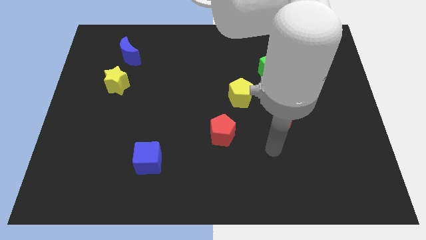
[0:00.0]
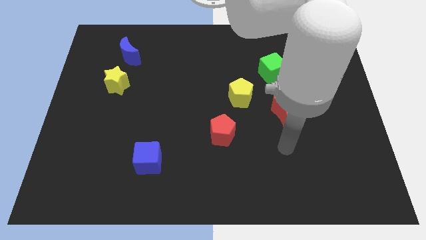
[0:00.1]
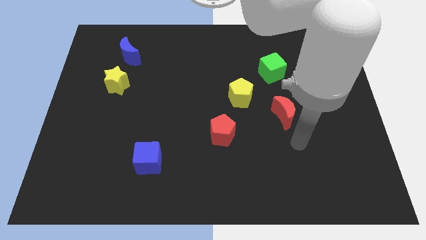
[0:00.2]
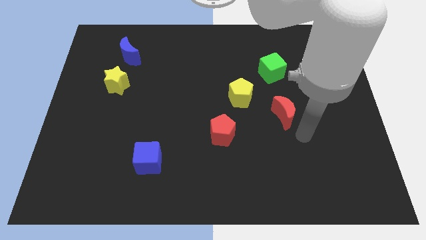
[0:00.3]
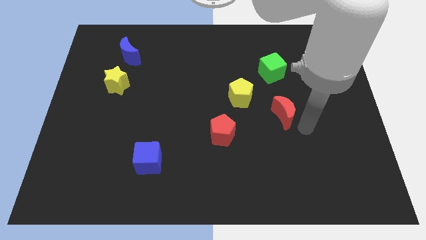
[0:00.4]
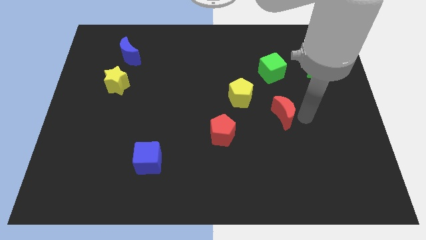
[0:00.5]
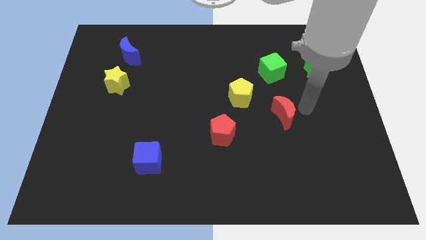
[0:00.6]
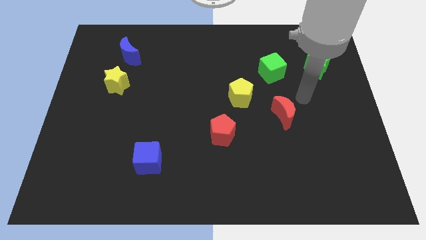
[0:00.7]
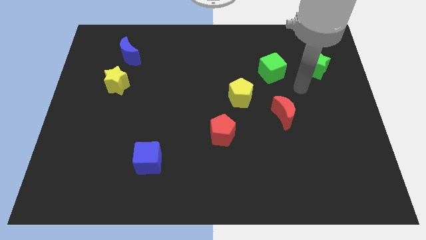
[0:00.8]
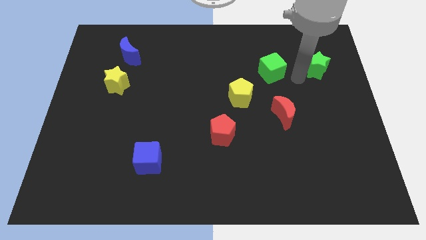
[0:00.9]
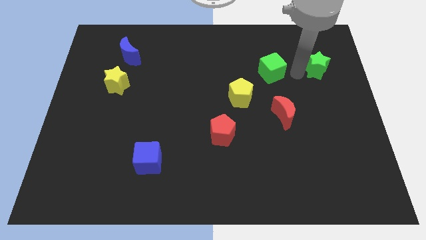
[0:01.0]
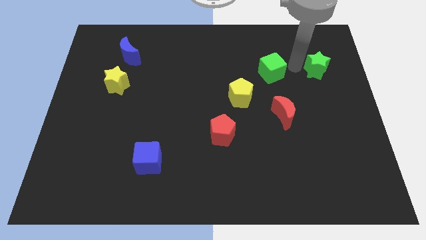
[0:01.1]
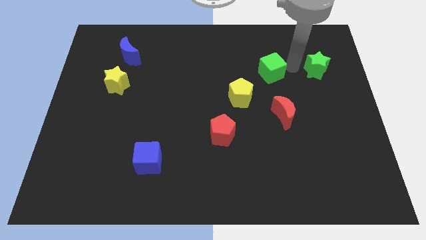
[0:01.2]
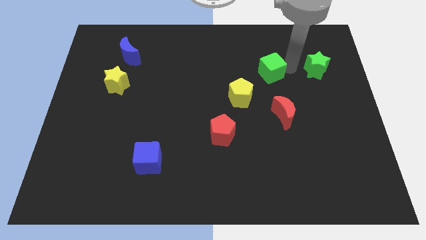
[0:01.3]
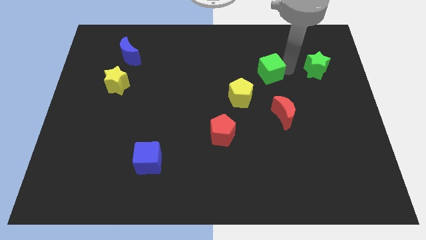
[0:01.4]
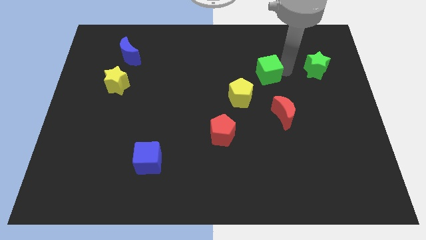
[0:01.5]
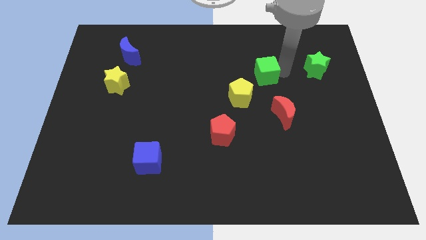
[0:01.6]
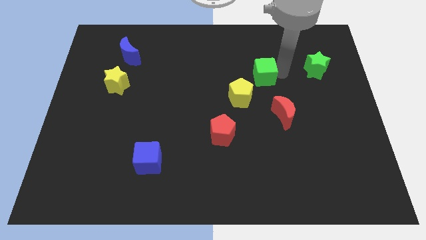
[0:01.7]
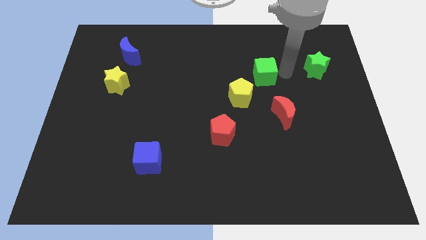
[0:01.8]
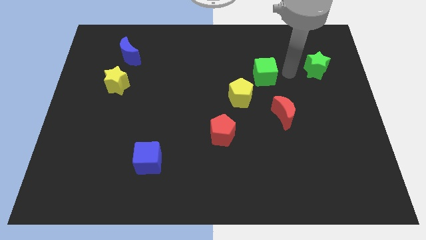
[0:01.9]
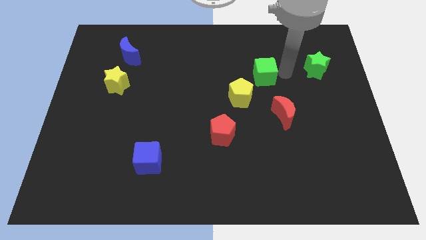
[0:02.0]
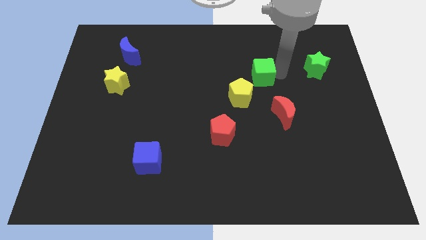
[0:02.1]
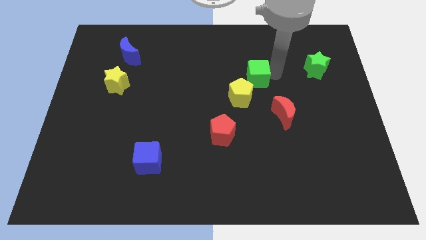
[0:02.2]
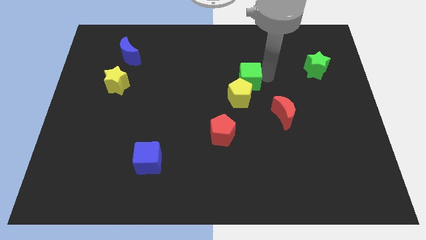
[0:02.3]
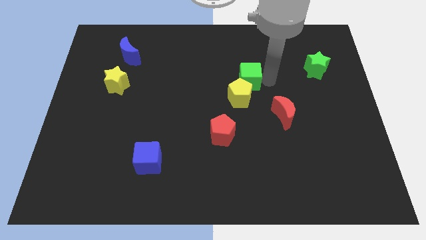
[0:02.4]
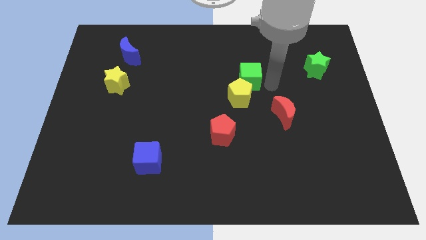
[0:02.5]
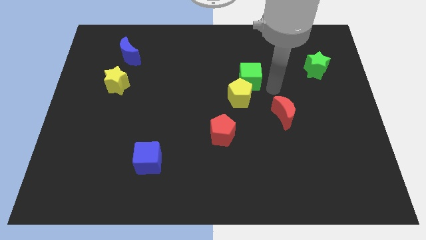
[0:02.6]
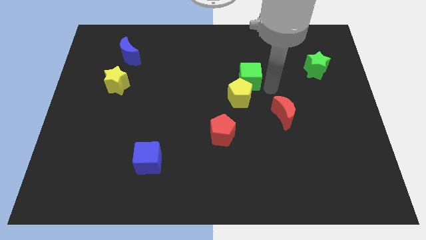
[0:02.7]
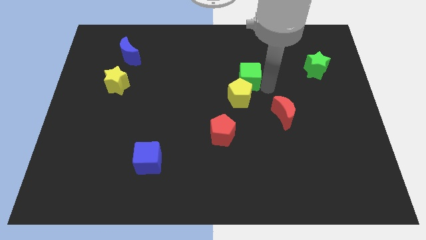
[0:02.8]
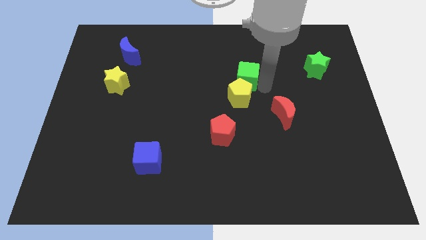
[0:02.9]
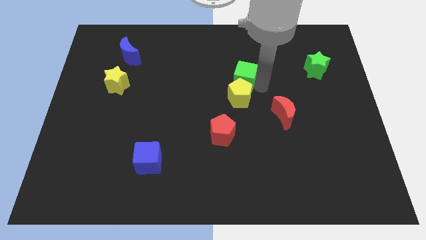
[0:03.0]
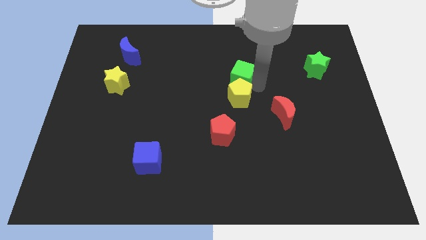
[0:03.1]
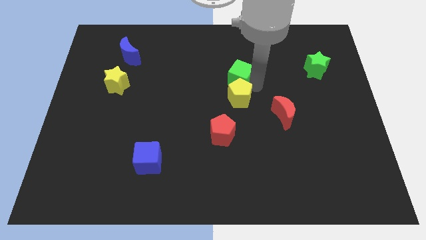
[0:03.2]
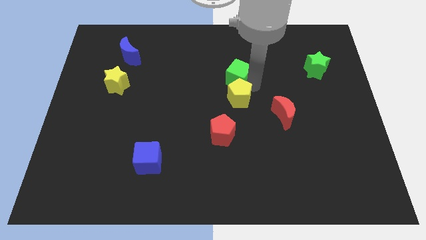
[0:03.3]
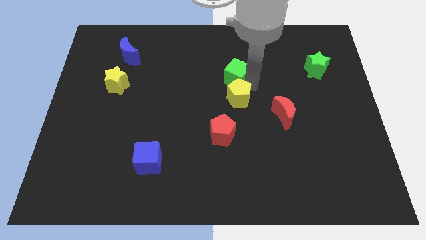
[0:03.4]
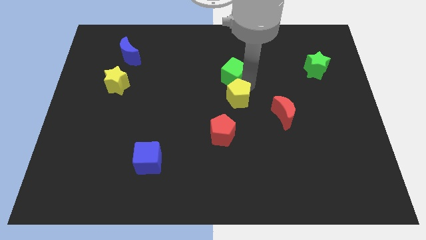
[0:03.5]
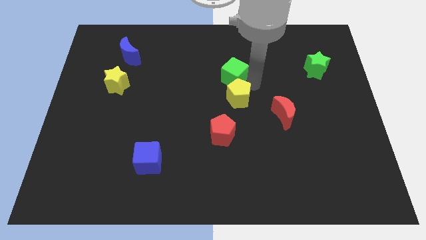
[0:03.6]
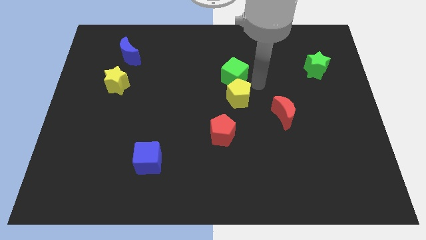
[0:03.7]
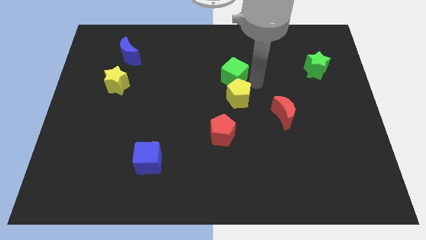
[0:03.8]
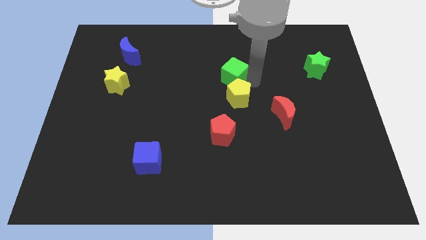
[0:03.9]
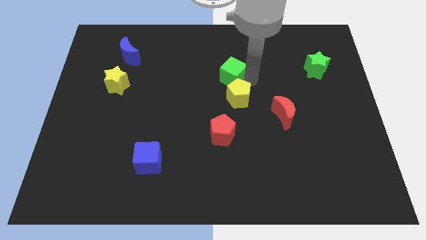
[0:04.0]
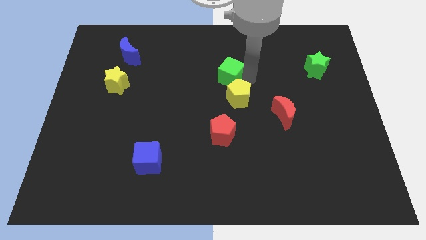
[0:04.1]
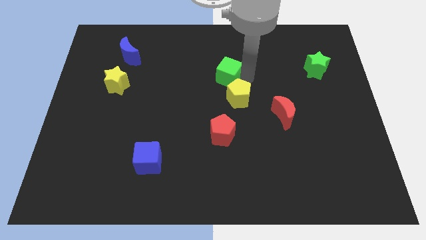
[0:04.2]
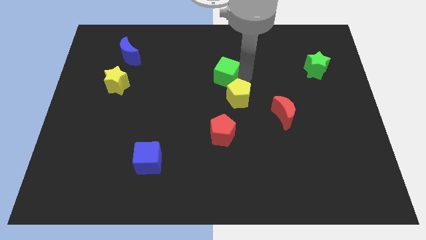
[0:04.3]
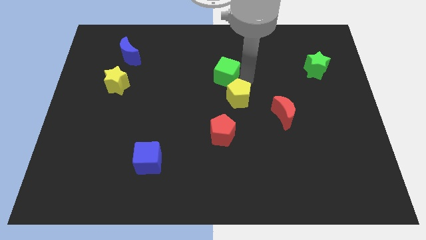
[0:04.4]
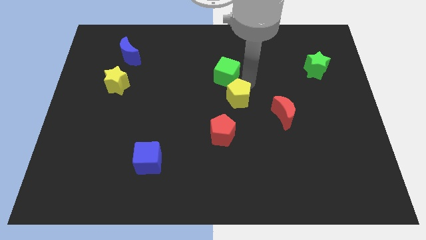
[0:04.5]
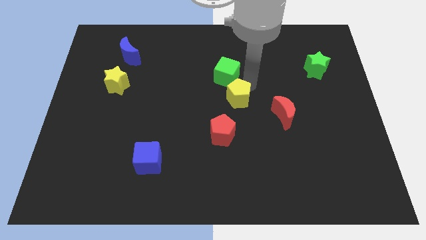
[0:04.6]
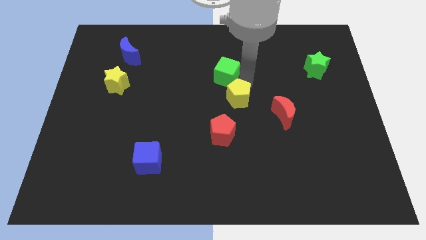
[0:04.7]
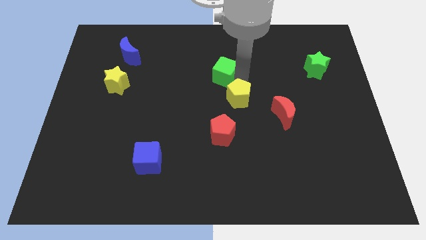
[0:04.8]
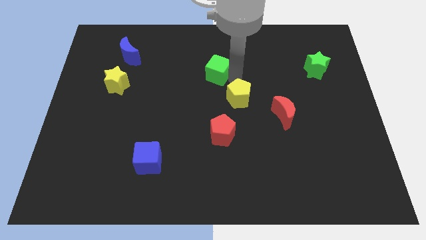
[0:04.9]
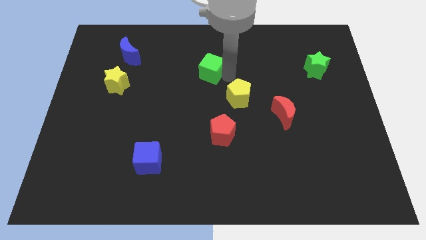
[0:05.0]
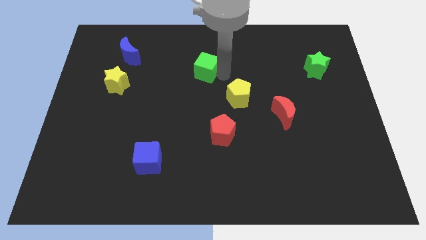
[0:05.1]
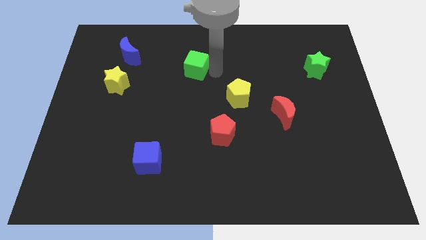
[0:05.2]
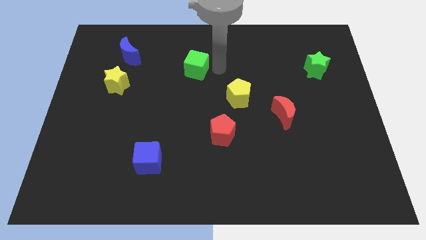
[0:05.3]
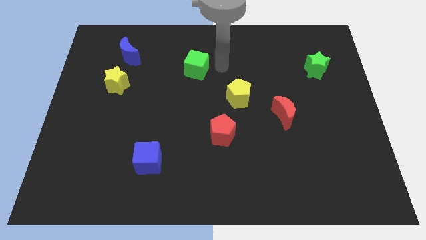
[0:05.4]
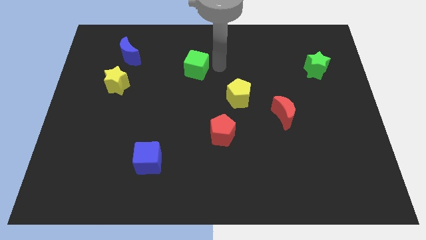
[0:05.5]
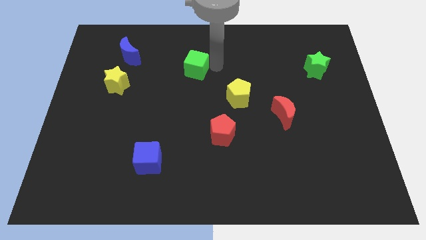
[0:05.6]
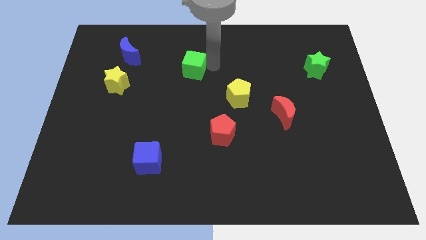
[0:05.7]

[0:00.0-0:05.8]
move the green cube left

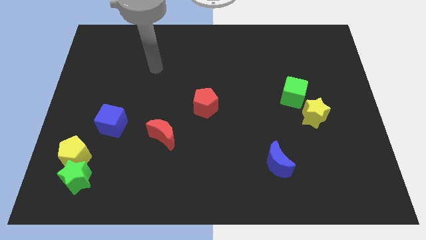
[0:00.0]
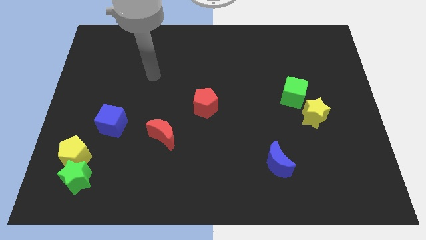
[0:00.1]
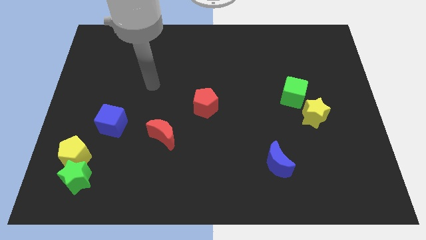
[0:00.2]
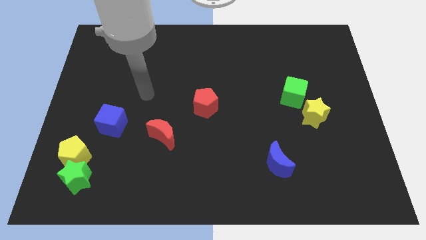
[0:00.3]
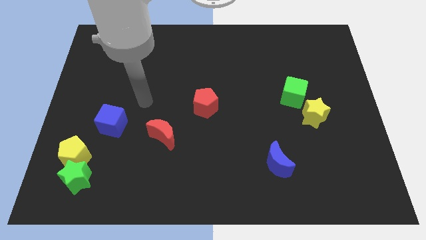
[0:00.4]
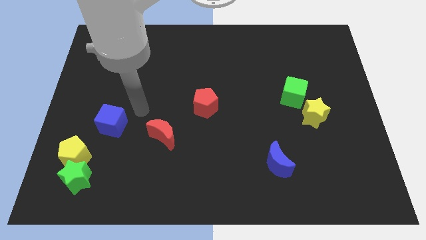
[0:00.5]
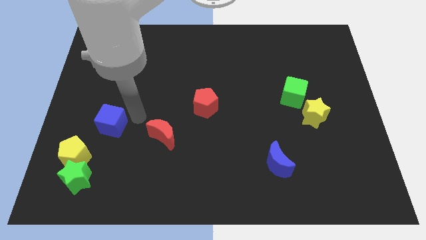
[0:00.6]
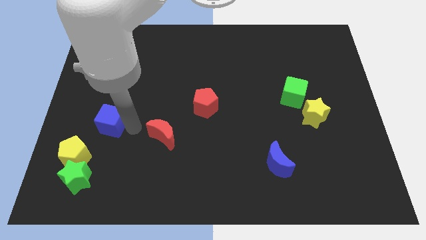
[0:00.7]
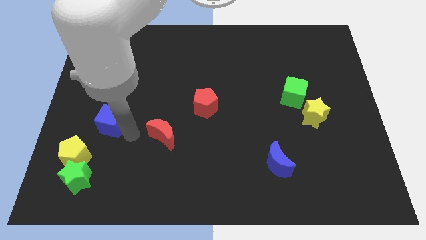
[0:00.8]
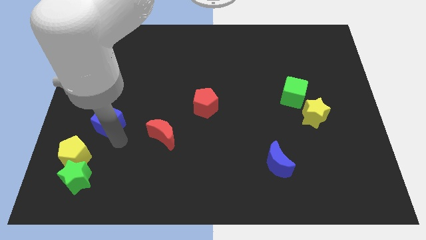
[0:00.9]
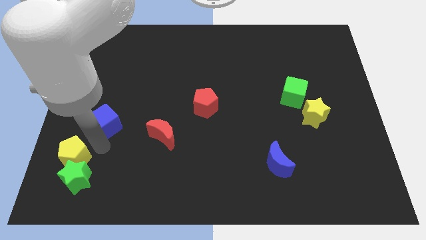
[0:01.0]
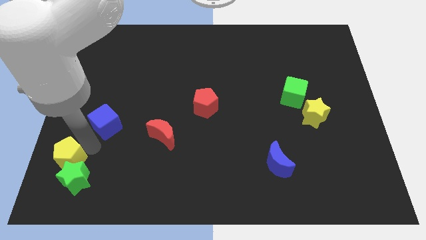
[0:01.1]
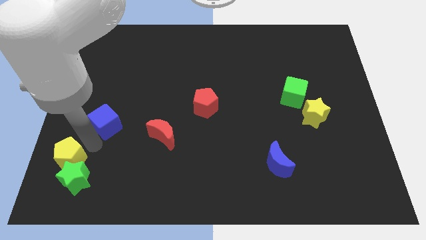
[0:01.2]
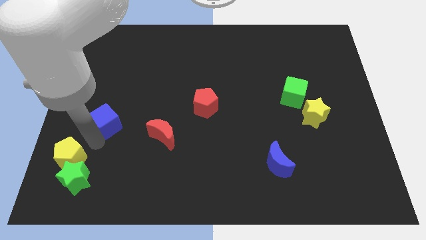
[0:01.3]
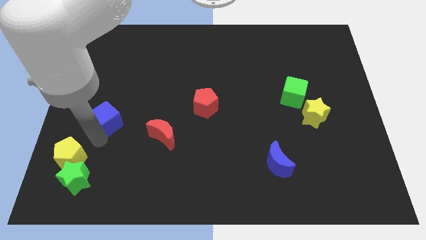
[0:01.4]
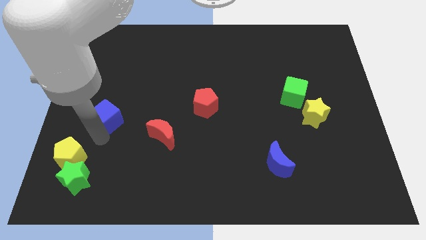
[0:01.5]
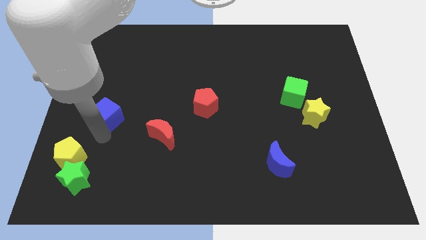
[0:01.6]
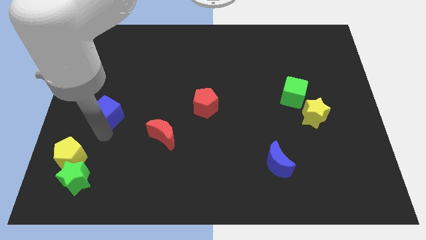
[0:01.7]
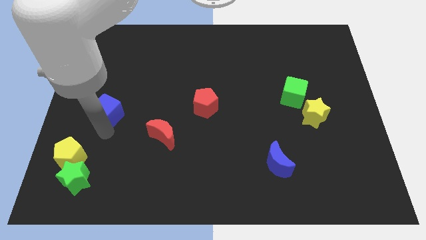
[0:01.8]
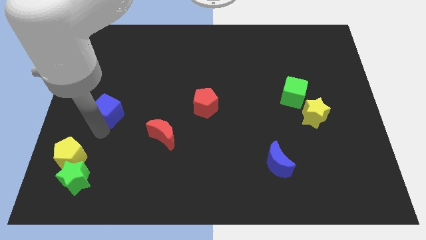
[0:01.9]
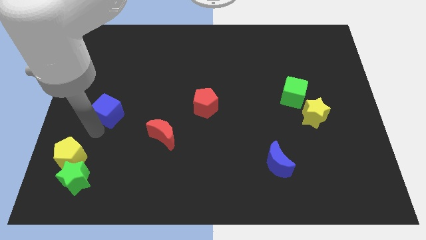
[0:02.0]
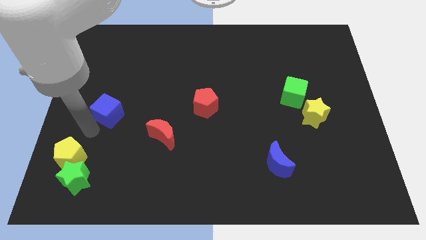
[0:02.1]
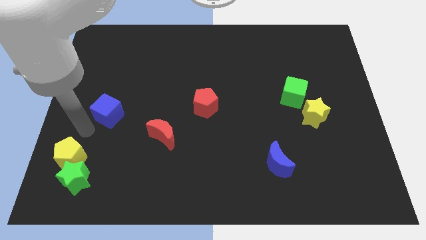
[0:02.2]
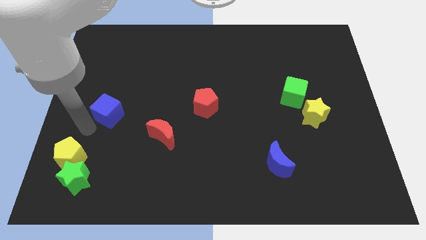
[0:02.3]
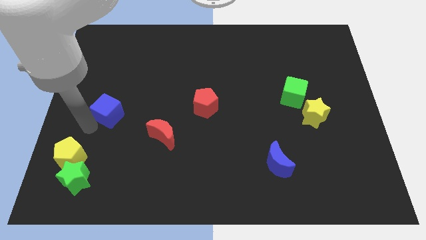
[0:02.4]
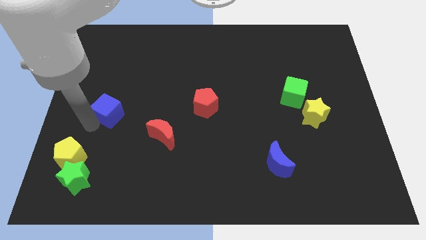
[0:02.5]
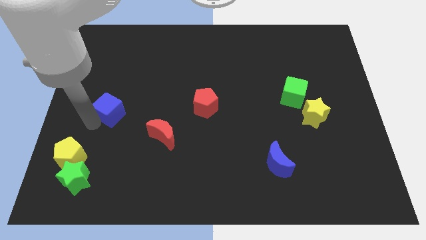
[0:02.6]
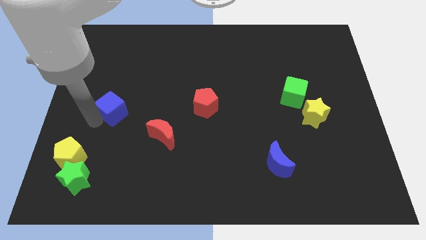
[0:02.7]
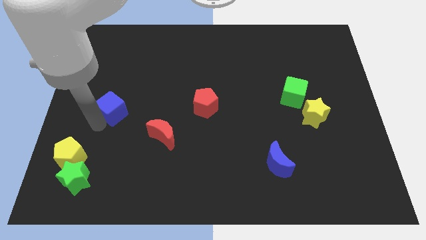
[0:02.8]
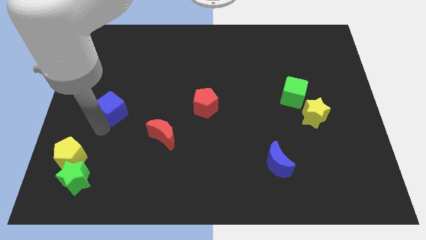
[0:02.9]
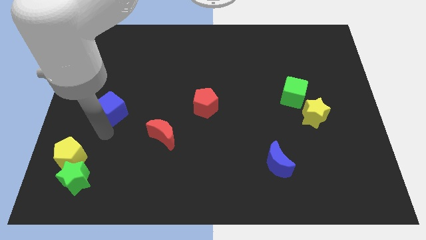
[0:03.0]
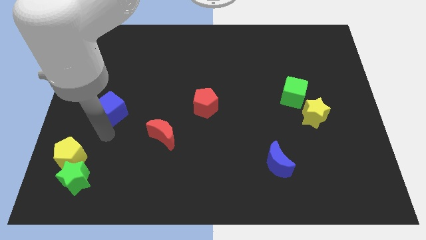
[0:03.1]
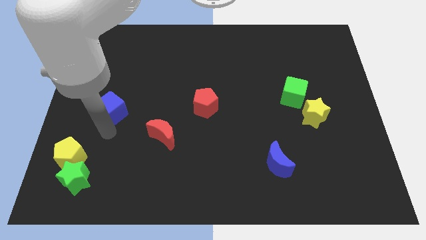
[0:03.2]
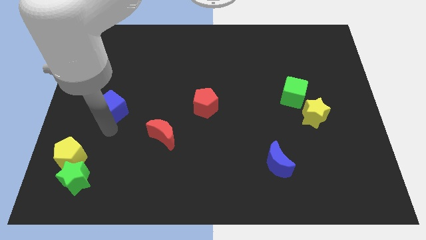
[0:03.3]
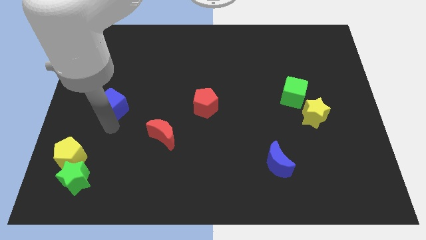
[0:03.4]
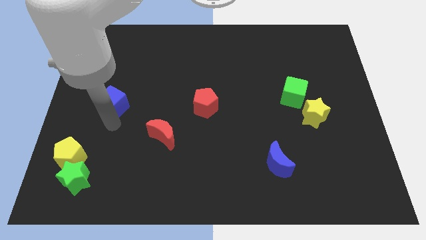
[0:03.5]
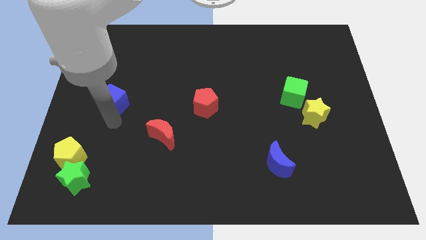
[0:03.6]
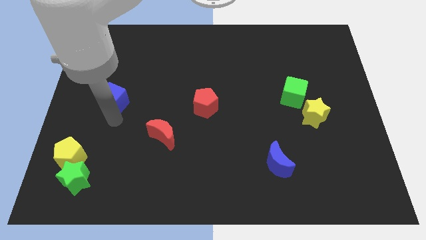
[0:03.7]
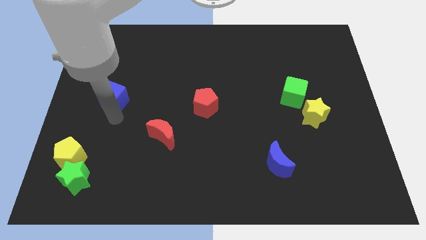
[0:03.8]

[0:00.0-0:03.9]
push the blue cube up a little bit
